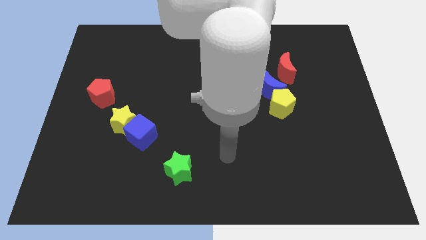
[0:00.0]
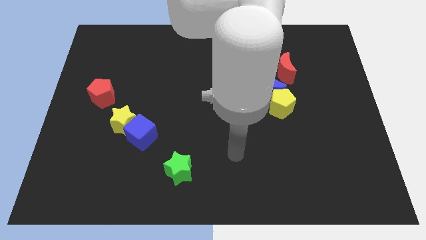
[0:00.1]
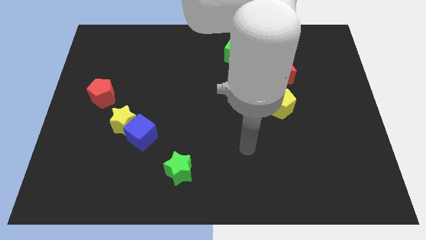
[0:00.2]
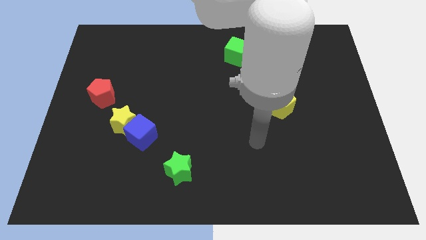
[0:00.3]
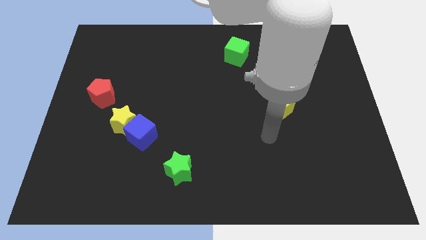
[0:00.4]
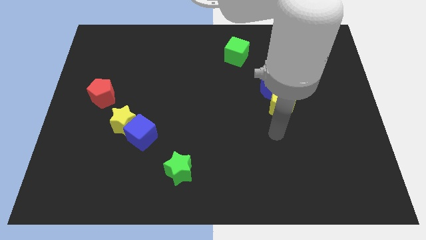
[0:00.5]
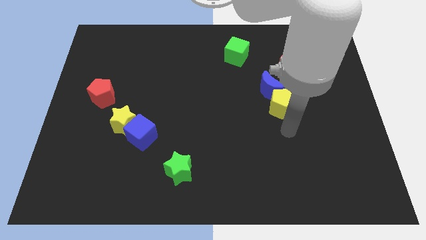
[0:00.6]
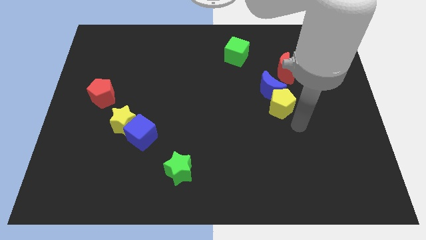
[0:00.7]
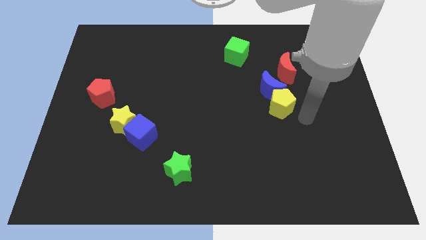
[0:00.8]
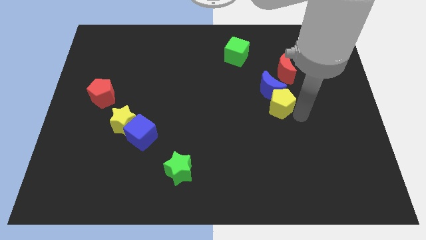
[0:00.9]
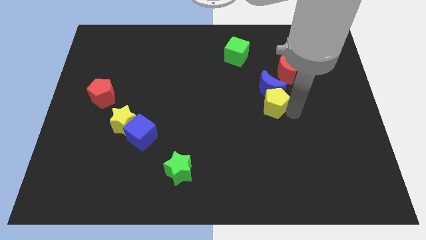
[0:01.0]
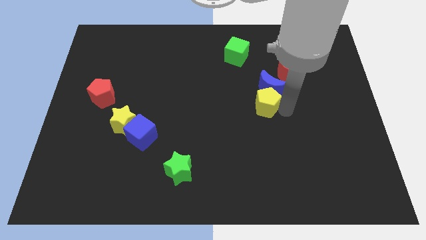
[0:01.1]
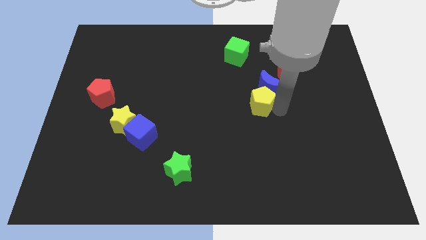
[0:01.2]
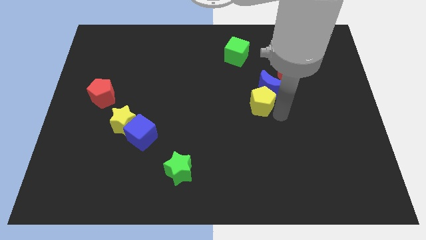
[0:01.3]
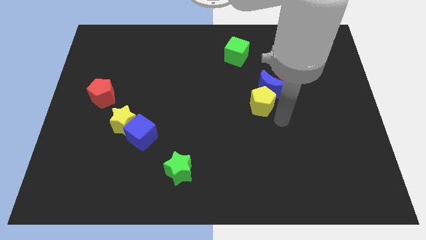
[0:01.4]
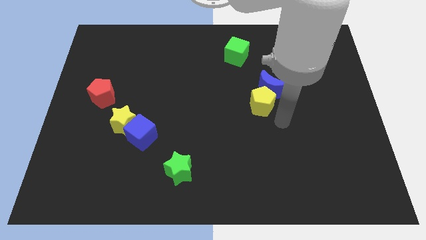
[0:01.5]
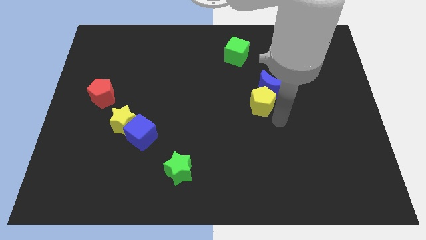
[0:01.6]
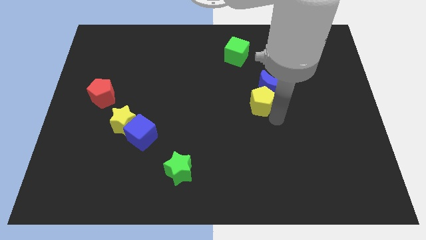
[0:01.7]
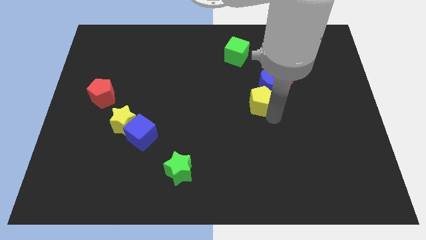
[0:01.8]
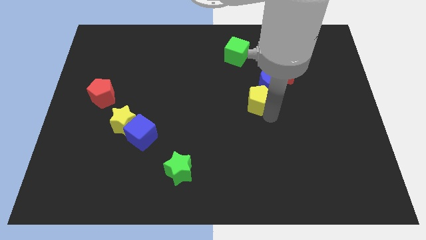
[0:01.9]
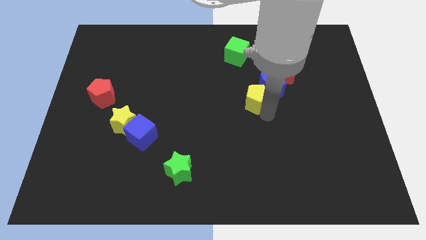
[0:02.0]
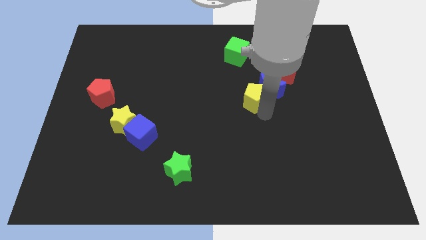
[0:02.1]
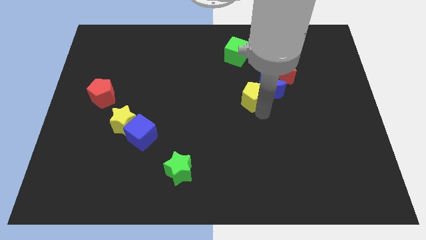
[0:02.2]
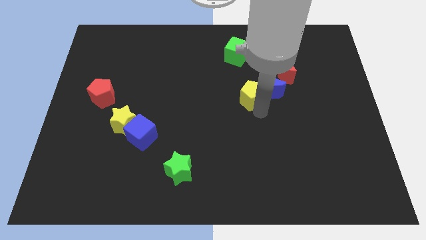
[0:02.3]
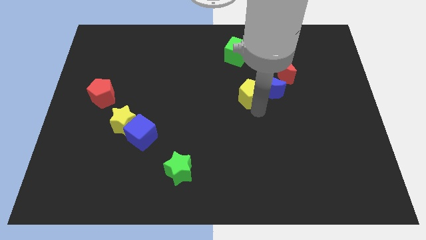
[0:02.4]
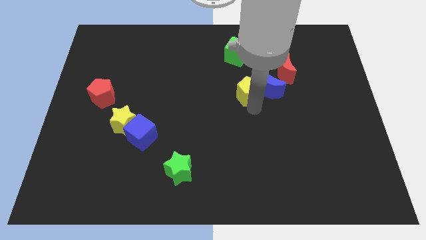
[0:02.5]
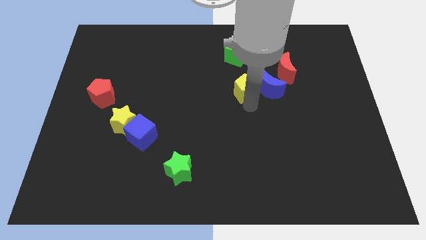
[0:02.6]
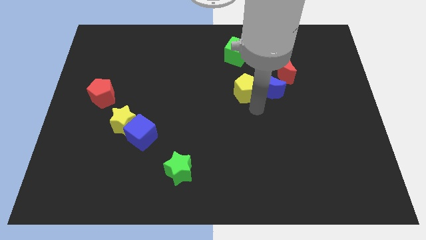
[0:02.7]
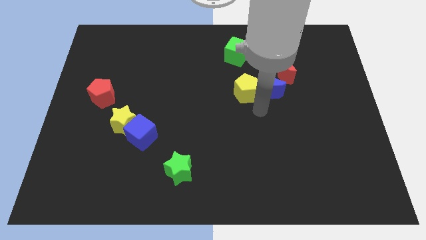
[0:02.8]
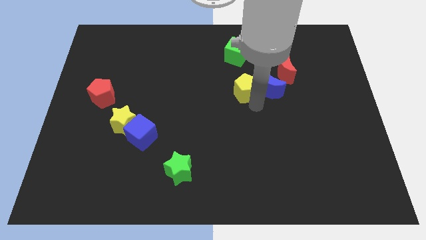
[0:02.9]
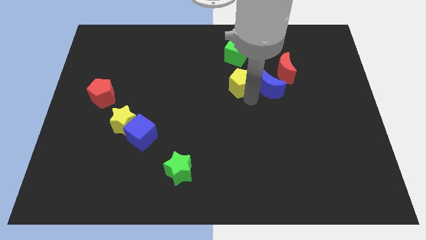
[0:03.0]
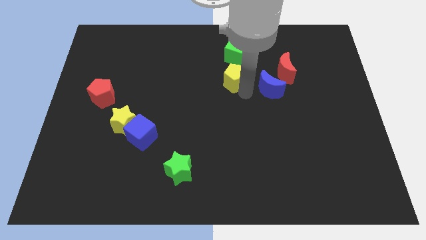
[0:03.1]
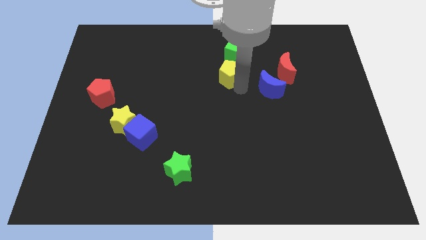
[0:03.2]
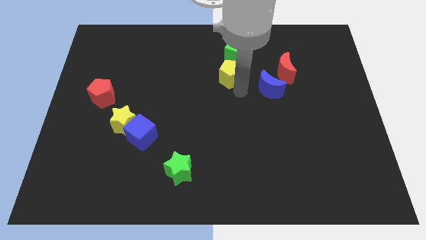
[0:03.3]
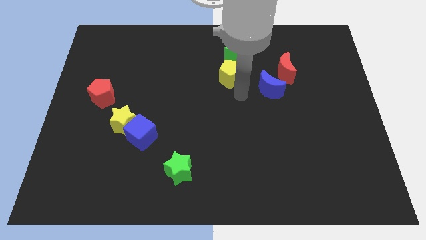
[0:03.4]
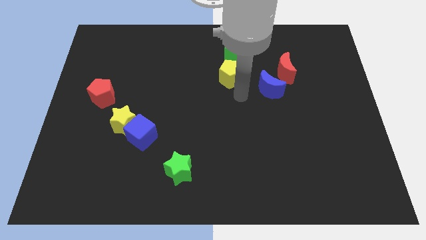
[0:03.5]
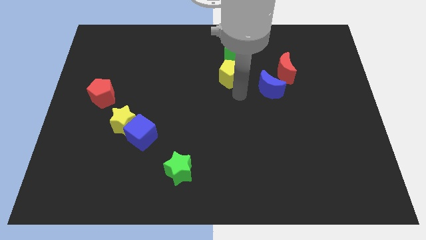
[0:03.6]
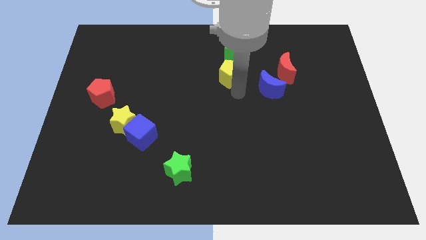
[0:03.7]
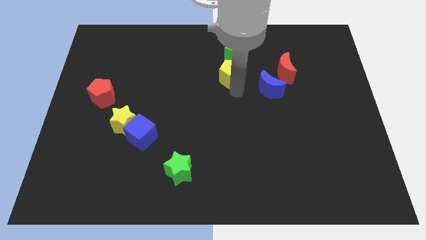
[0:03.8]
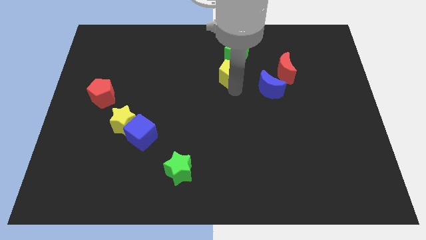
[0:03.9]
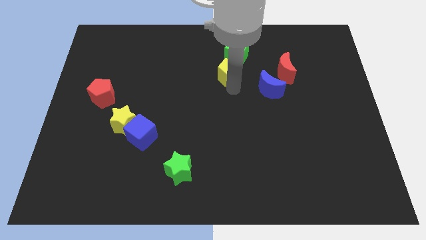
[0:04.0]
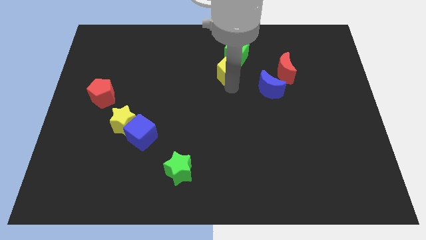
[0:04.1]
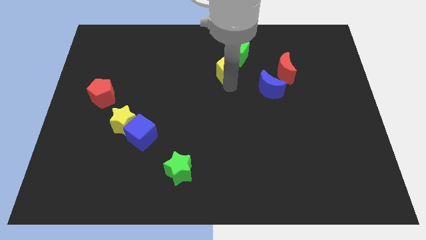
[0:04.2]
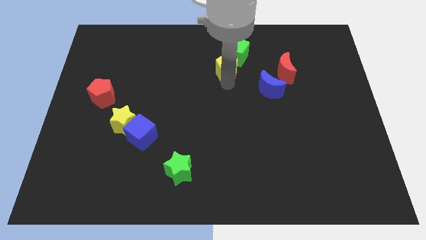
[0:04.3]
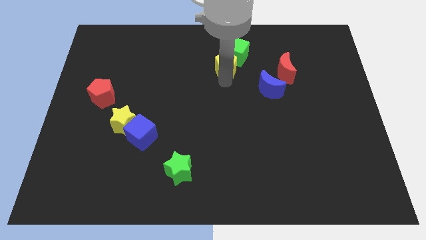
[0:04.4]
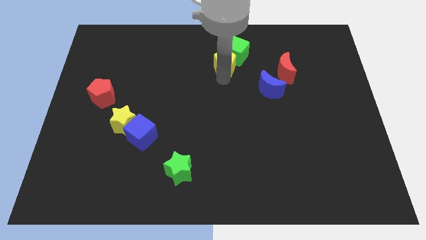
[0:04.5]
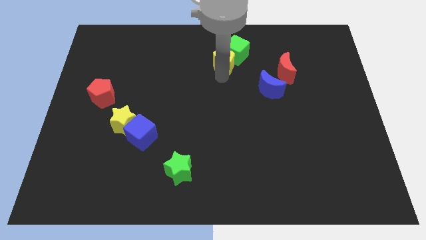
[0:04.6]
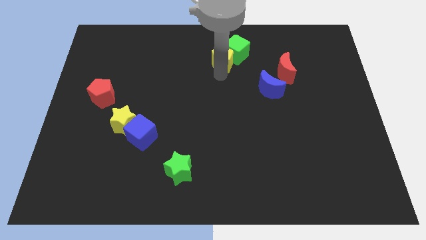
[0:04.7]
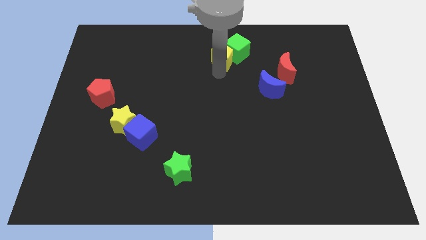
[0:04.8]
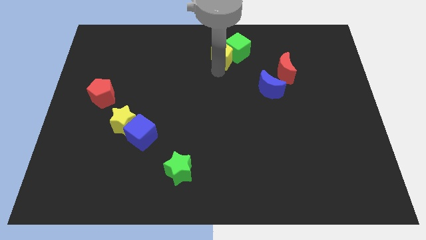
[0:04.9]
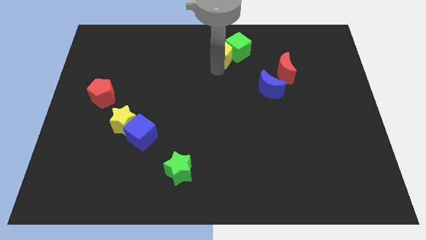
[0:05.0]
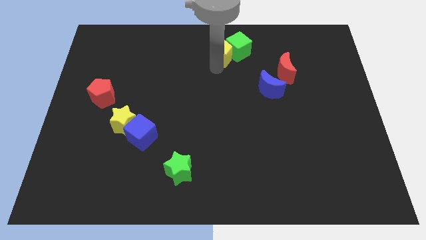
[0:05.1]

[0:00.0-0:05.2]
push the yellow pentagon to the top

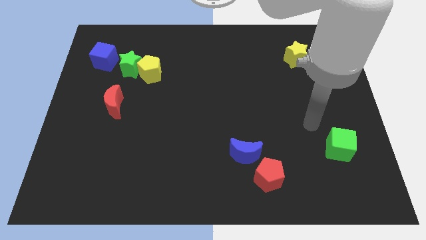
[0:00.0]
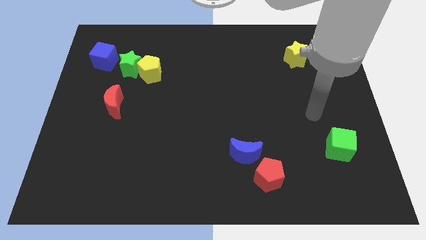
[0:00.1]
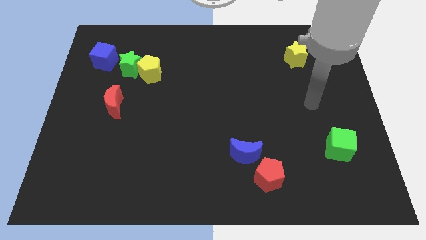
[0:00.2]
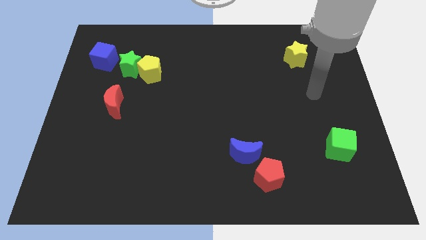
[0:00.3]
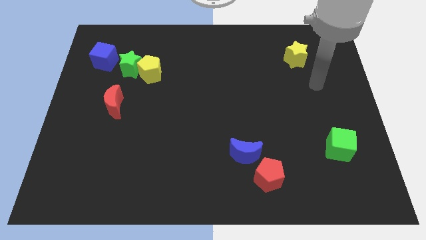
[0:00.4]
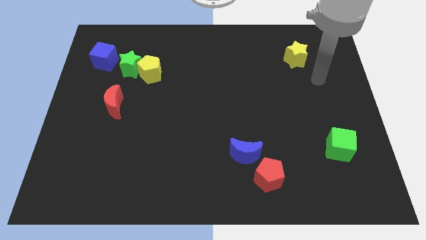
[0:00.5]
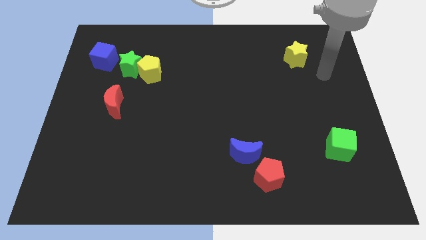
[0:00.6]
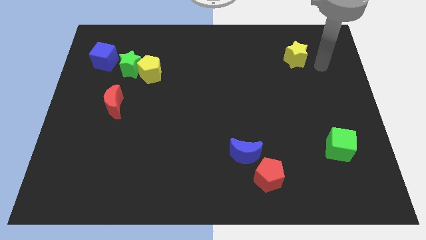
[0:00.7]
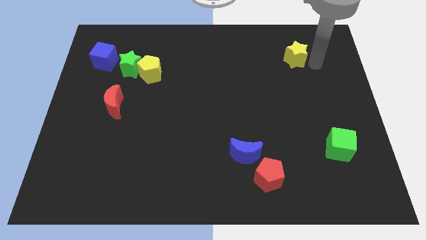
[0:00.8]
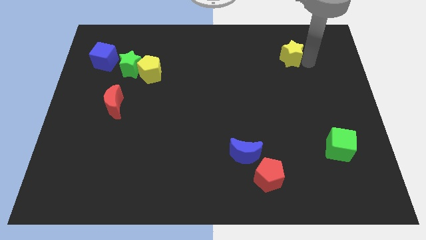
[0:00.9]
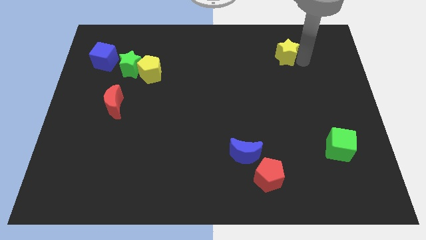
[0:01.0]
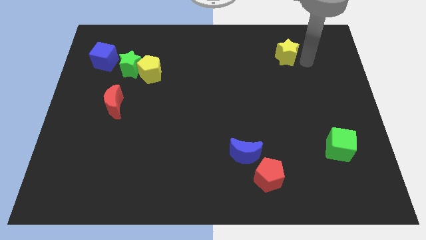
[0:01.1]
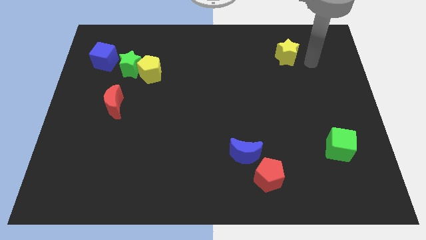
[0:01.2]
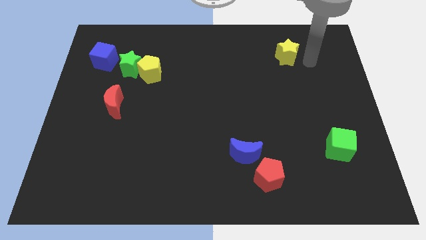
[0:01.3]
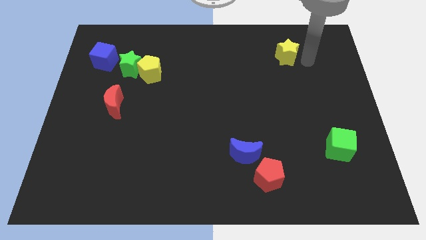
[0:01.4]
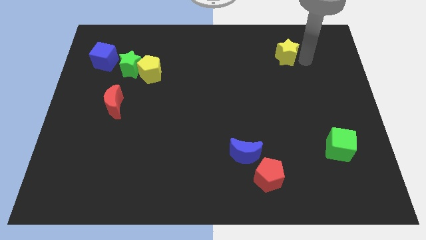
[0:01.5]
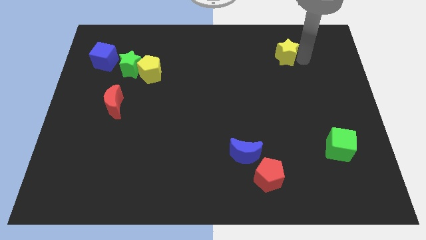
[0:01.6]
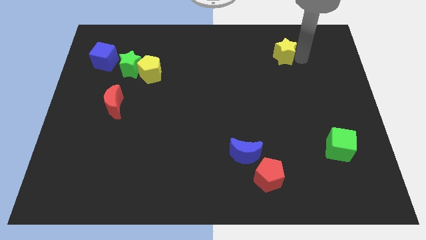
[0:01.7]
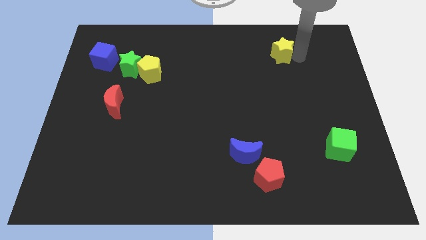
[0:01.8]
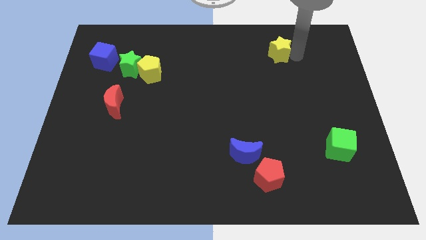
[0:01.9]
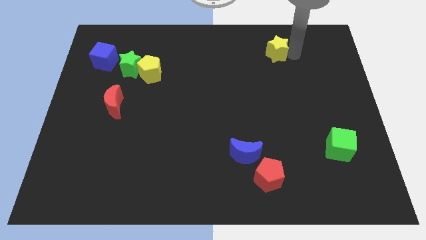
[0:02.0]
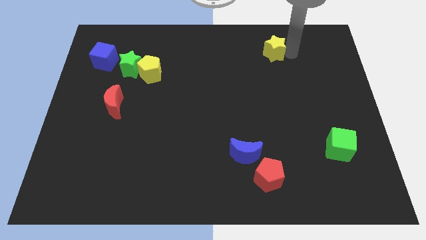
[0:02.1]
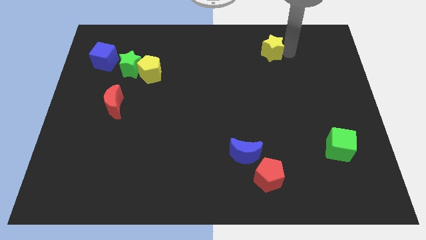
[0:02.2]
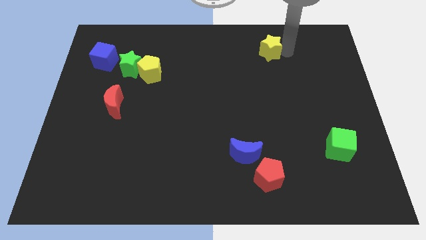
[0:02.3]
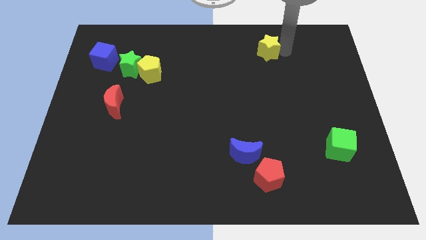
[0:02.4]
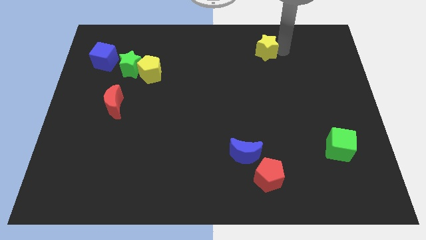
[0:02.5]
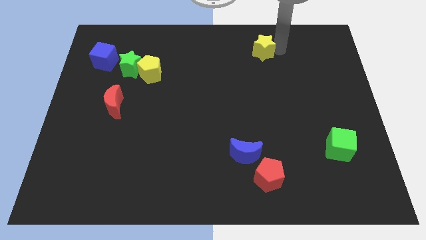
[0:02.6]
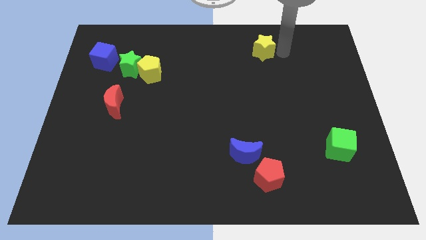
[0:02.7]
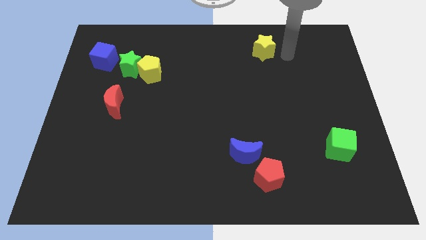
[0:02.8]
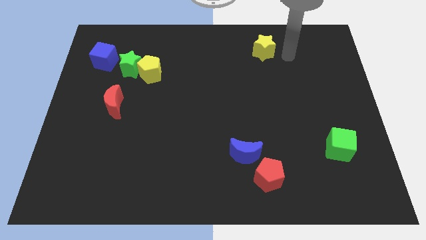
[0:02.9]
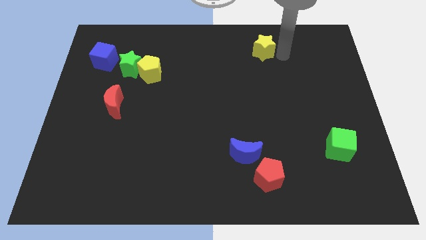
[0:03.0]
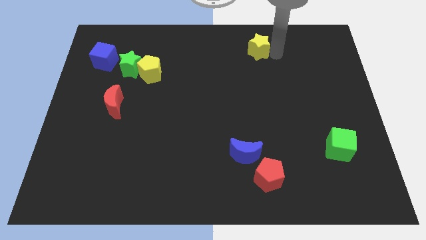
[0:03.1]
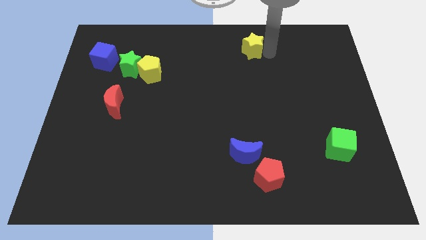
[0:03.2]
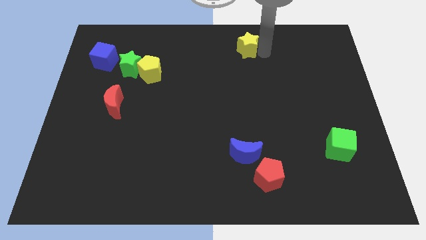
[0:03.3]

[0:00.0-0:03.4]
move the yellow star to the top
